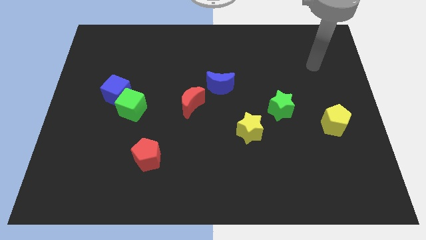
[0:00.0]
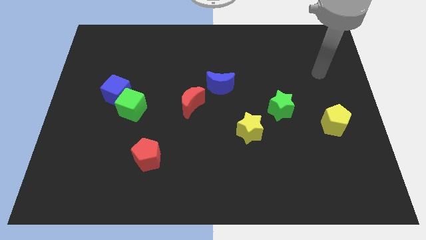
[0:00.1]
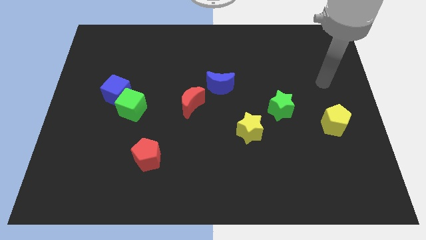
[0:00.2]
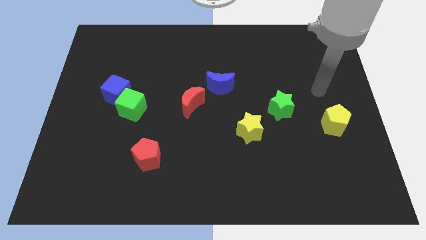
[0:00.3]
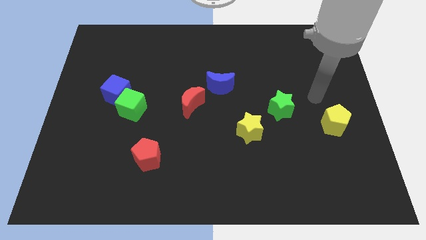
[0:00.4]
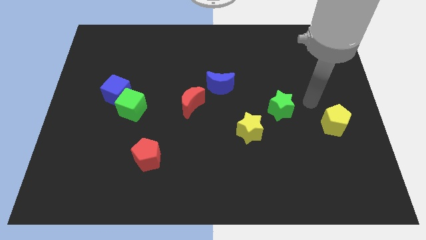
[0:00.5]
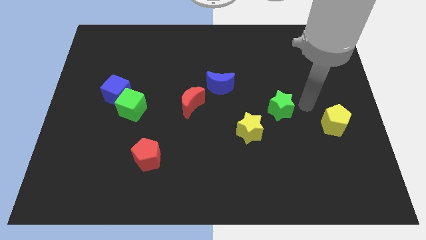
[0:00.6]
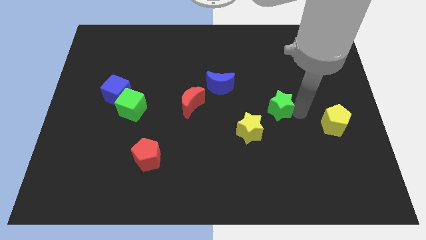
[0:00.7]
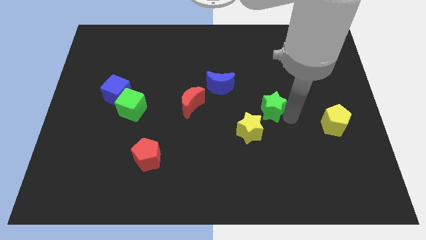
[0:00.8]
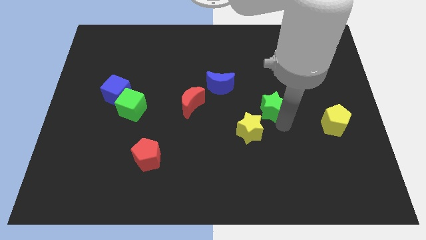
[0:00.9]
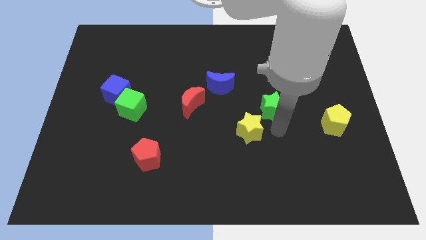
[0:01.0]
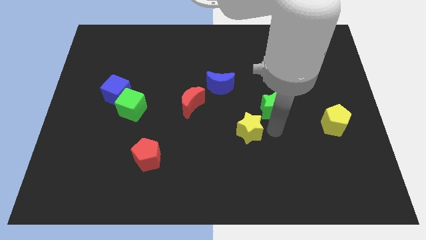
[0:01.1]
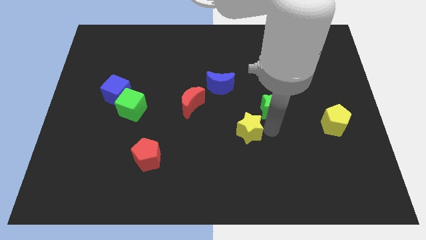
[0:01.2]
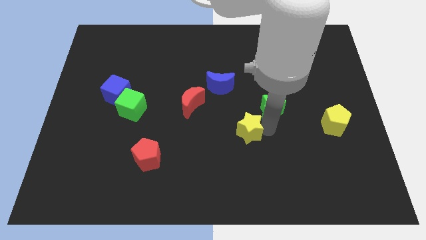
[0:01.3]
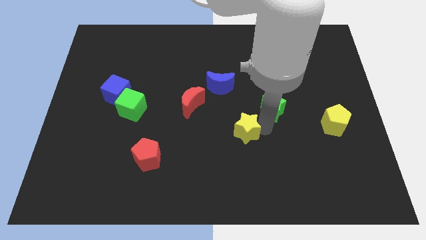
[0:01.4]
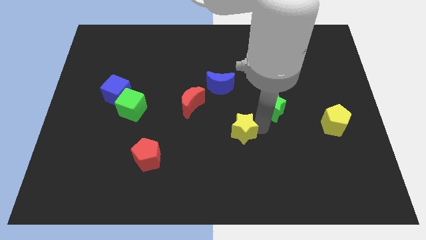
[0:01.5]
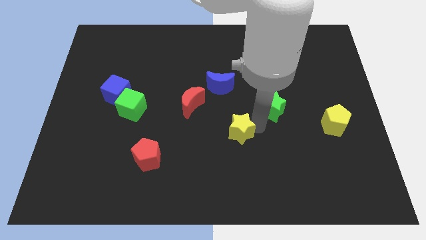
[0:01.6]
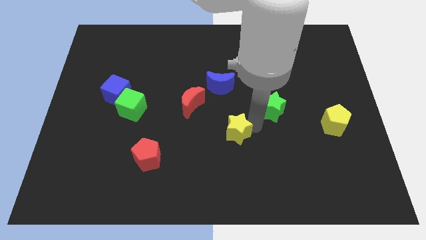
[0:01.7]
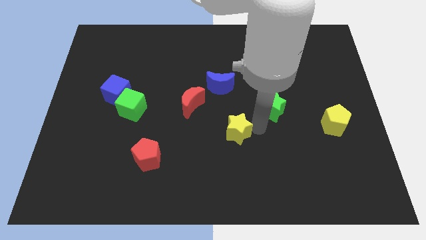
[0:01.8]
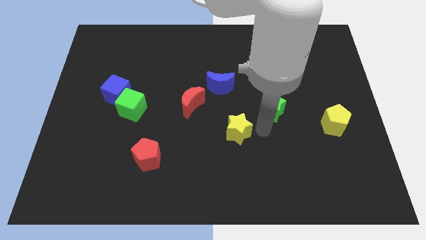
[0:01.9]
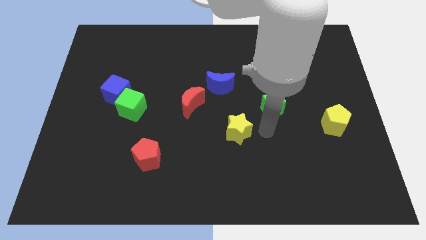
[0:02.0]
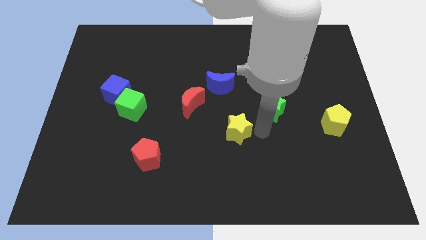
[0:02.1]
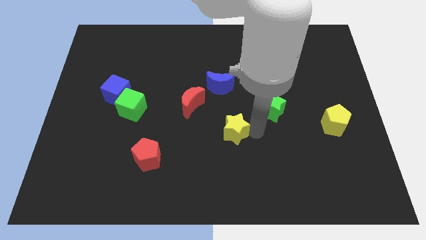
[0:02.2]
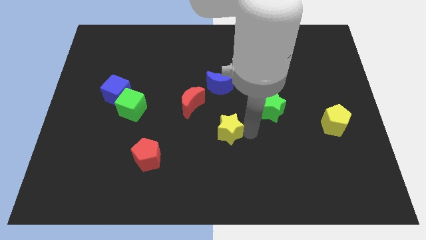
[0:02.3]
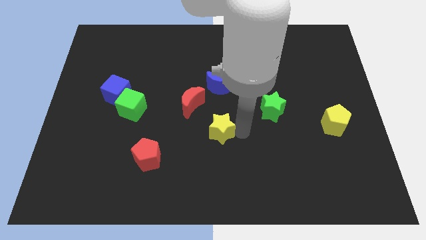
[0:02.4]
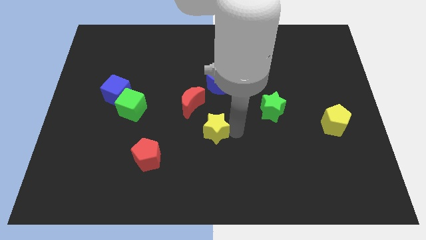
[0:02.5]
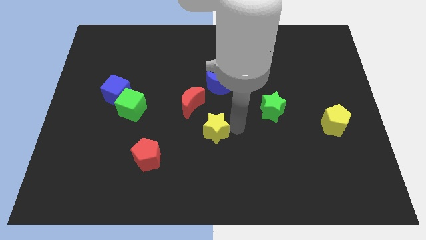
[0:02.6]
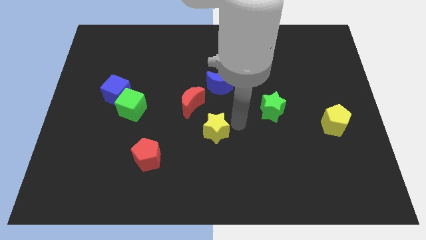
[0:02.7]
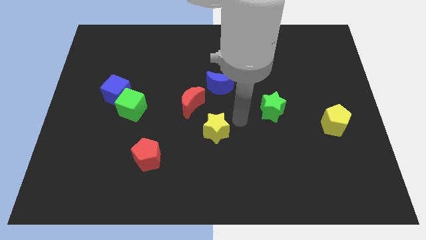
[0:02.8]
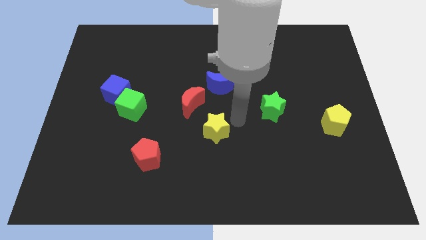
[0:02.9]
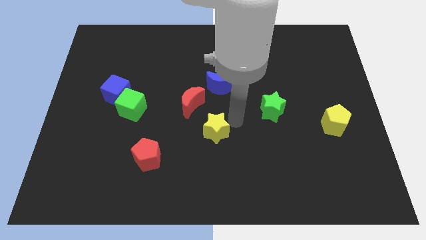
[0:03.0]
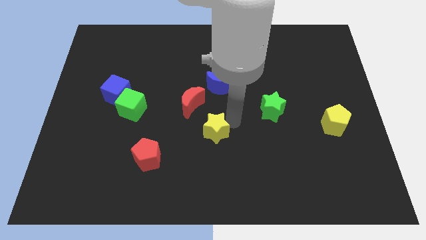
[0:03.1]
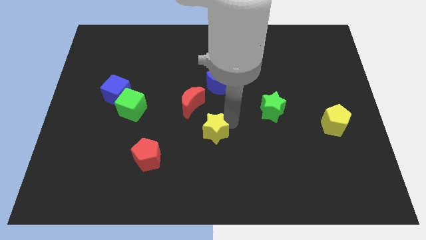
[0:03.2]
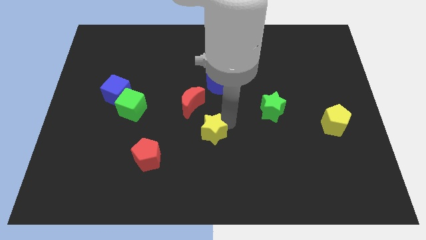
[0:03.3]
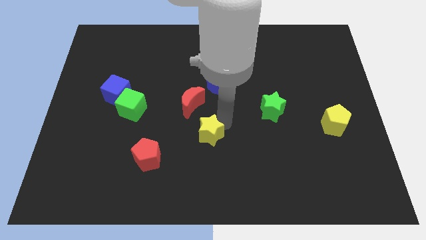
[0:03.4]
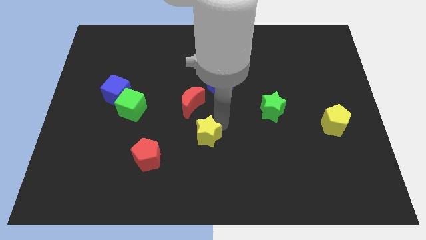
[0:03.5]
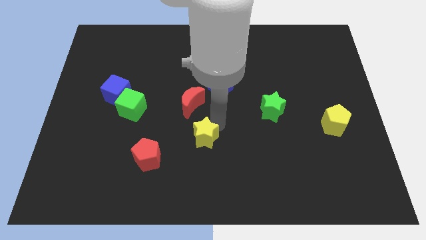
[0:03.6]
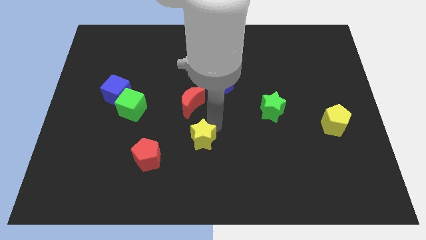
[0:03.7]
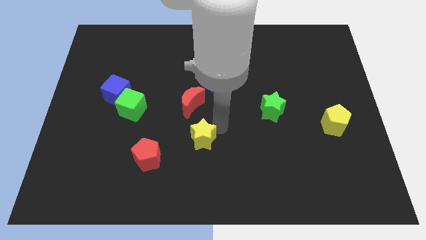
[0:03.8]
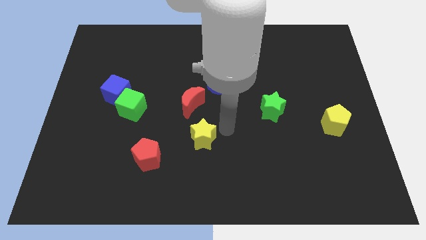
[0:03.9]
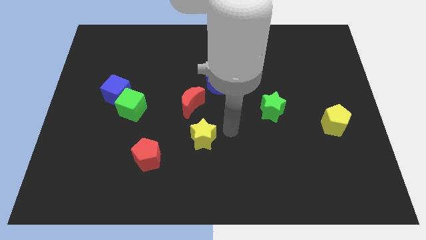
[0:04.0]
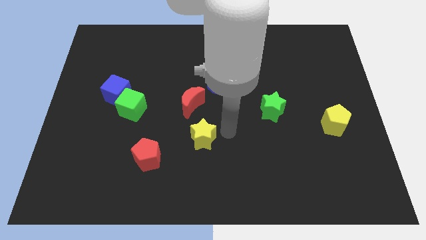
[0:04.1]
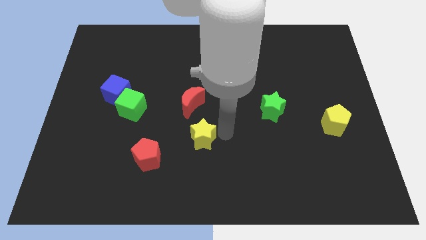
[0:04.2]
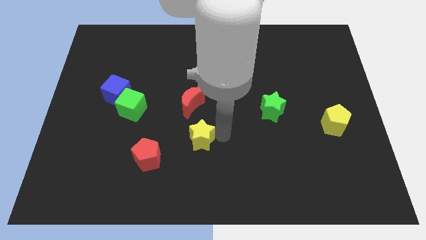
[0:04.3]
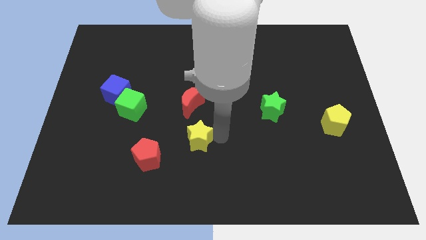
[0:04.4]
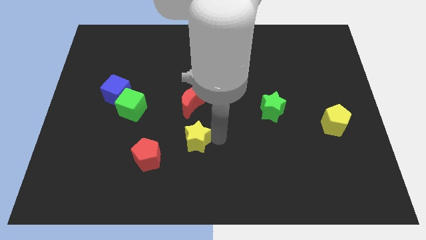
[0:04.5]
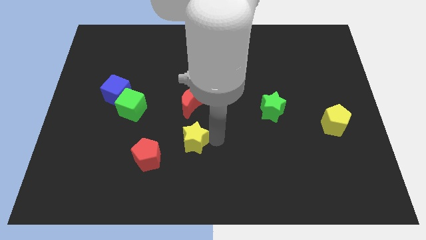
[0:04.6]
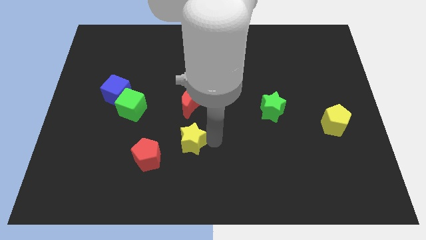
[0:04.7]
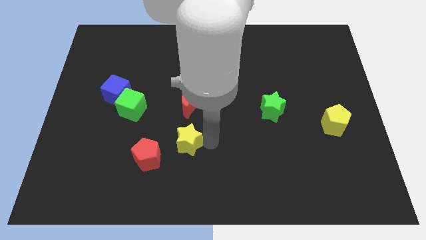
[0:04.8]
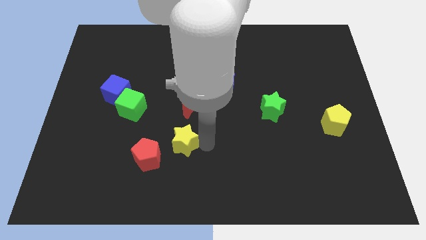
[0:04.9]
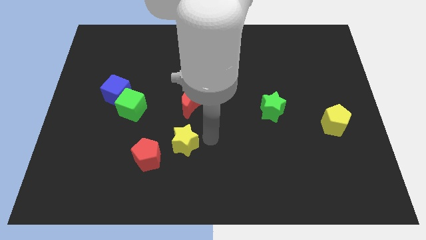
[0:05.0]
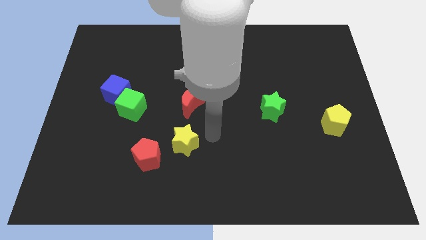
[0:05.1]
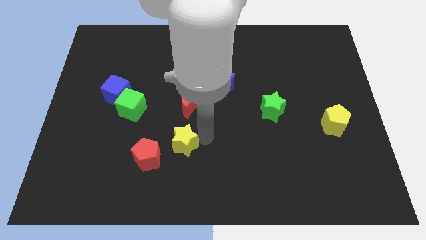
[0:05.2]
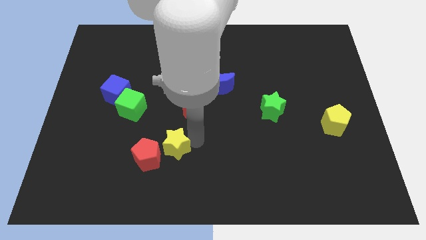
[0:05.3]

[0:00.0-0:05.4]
move the yellow star next to the red pentagon

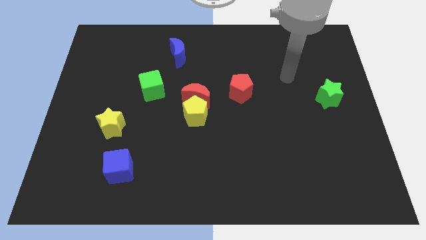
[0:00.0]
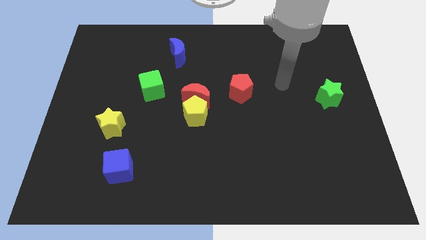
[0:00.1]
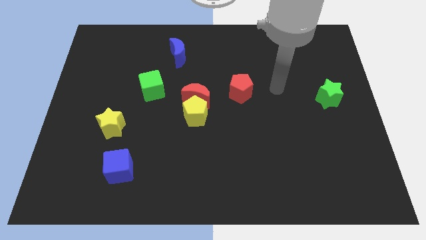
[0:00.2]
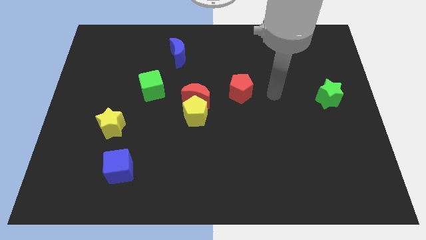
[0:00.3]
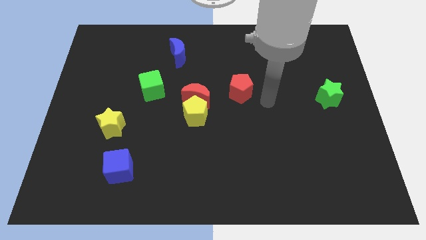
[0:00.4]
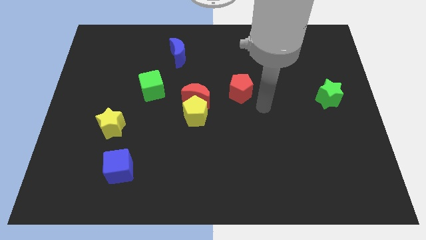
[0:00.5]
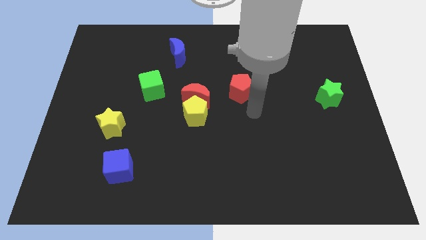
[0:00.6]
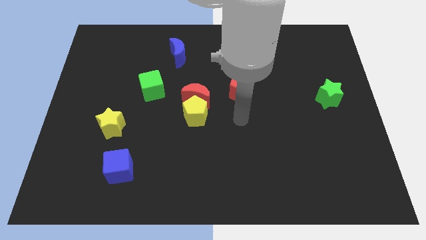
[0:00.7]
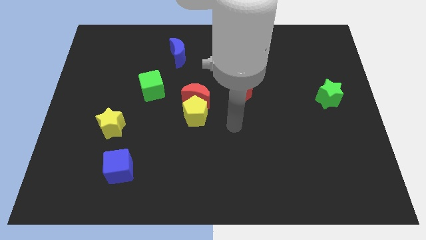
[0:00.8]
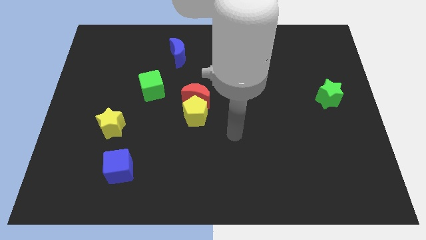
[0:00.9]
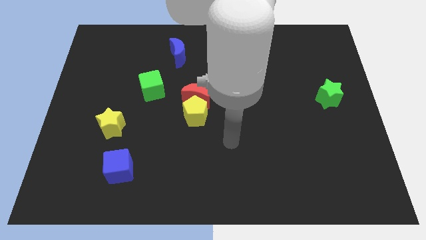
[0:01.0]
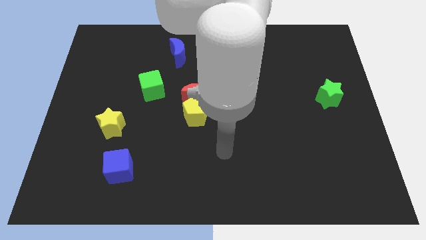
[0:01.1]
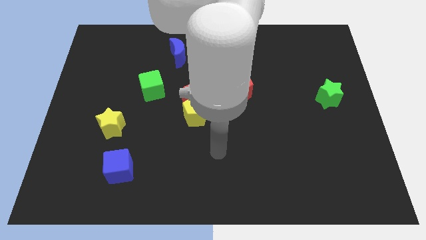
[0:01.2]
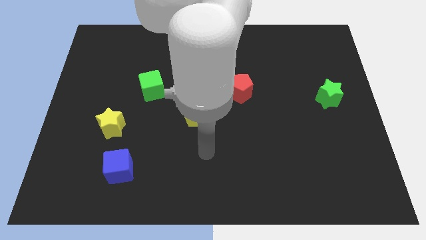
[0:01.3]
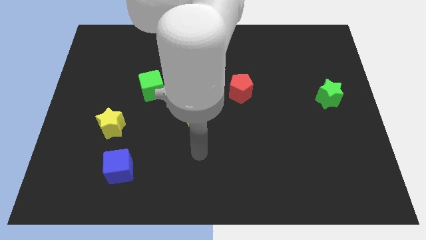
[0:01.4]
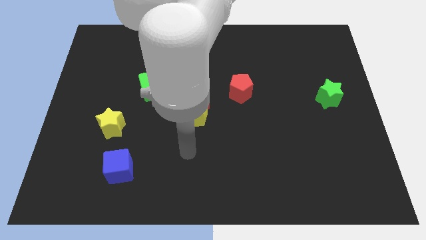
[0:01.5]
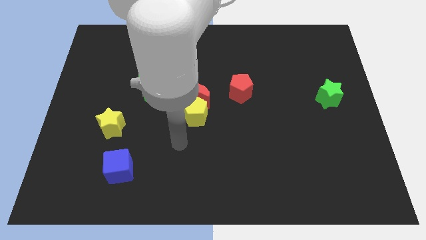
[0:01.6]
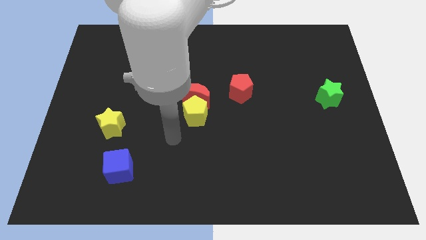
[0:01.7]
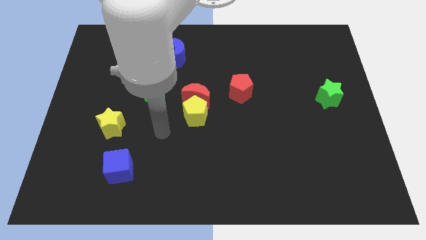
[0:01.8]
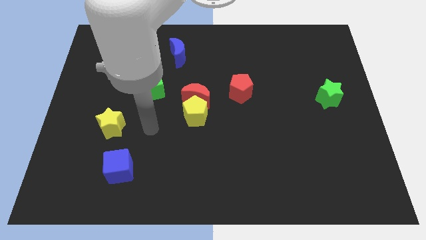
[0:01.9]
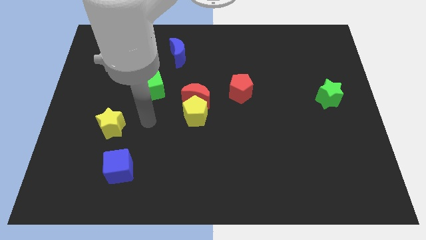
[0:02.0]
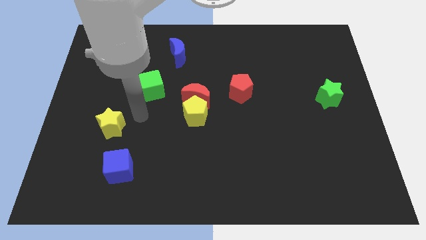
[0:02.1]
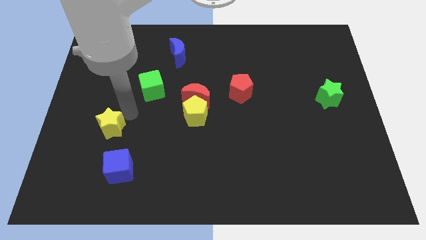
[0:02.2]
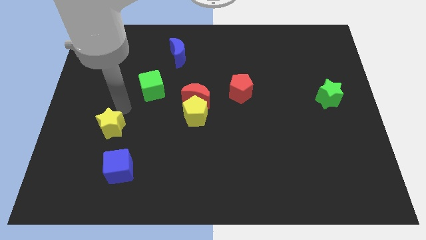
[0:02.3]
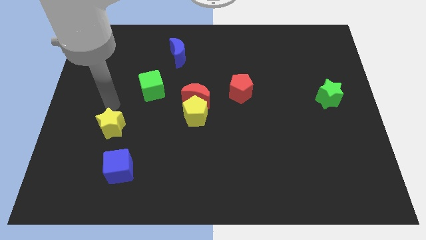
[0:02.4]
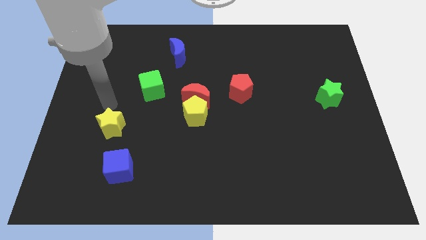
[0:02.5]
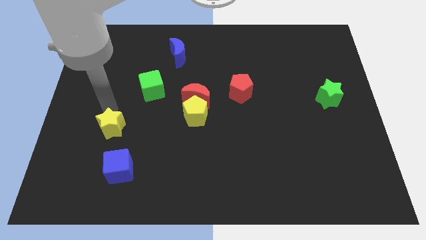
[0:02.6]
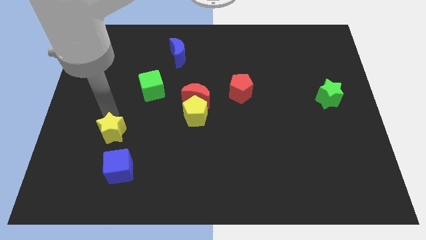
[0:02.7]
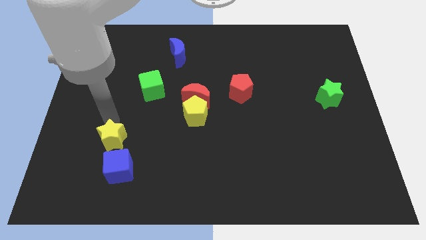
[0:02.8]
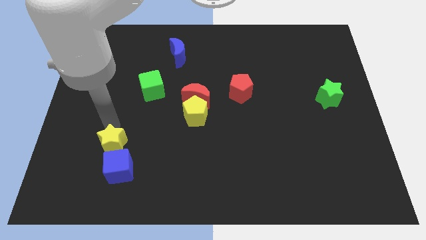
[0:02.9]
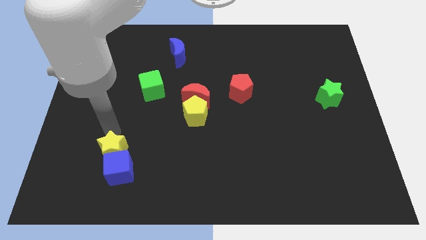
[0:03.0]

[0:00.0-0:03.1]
move the yellow star to the blue cube
